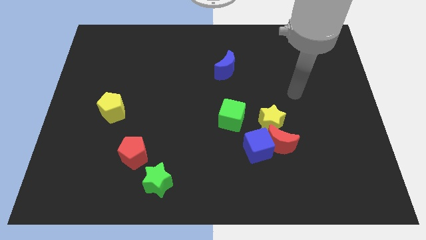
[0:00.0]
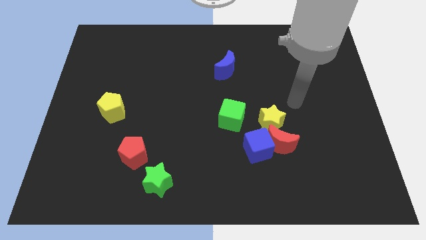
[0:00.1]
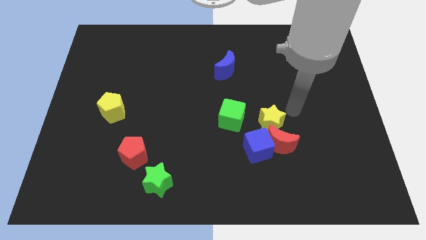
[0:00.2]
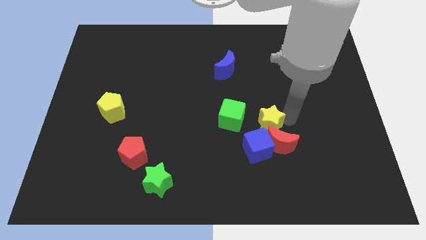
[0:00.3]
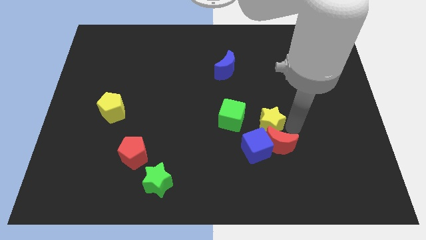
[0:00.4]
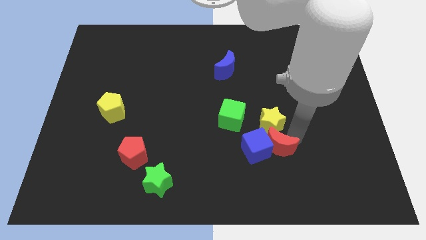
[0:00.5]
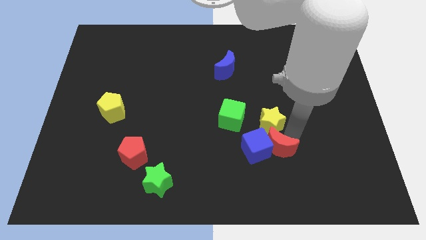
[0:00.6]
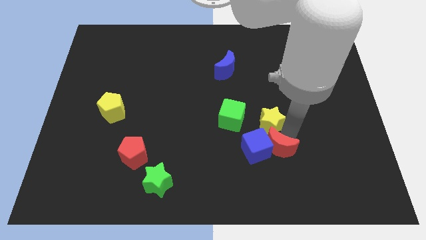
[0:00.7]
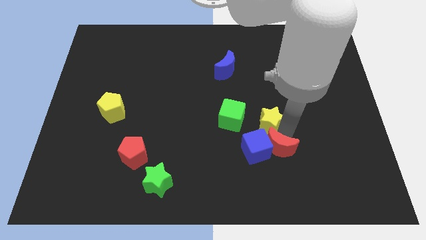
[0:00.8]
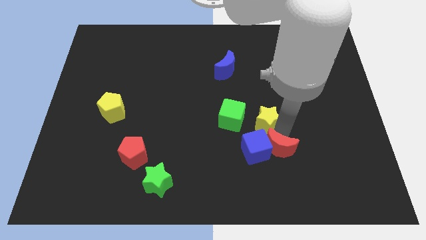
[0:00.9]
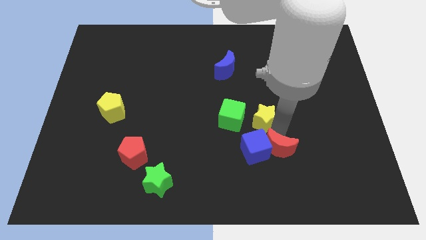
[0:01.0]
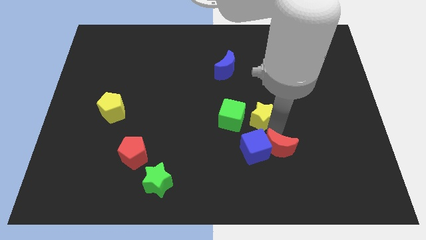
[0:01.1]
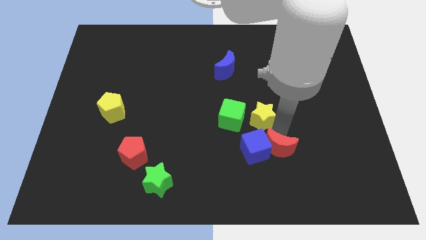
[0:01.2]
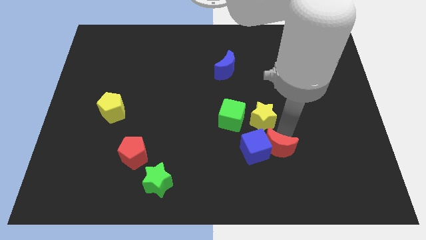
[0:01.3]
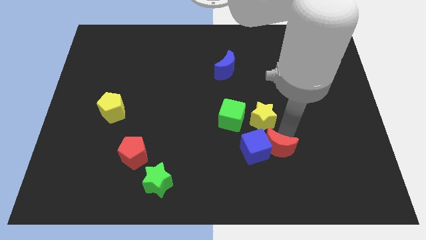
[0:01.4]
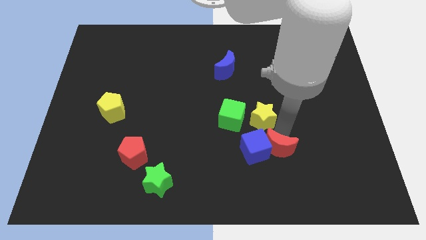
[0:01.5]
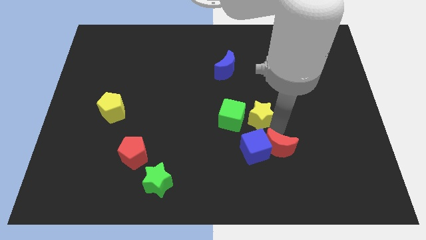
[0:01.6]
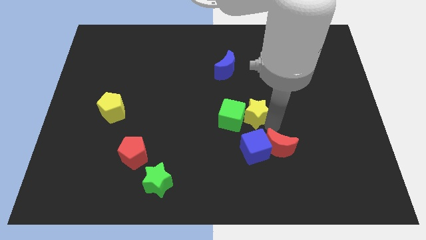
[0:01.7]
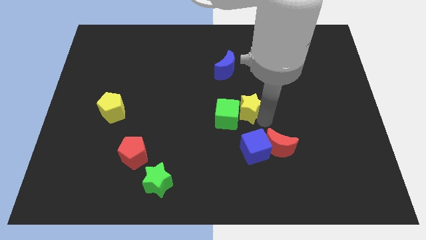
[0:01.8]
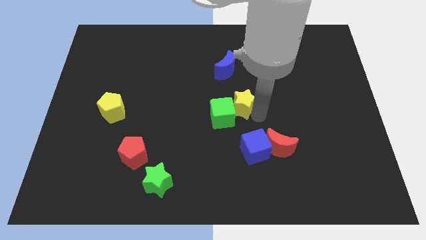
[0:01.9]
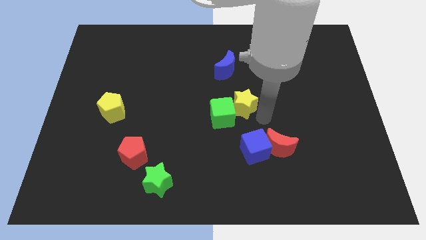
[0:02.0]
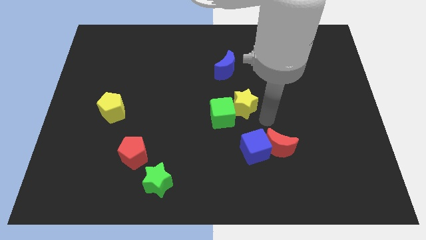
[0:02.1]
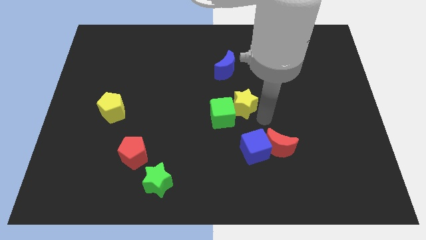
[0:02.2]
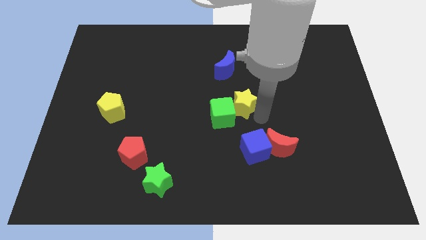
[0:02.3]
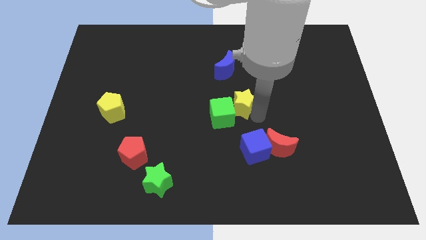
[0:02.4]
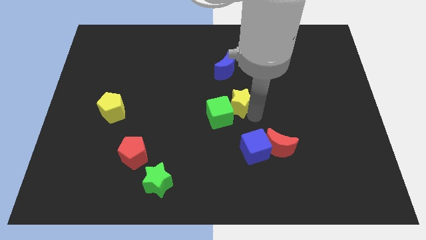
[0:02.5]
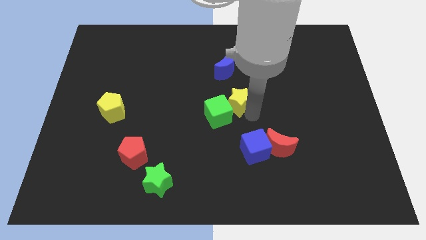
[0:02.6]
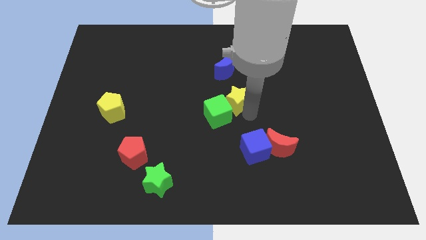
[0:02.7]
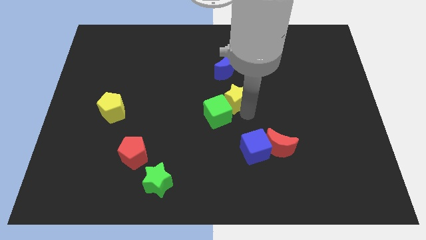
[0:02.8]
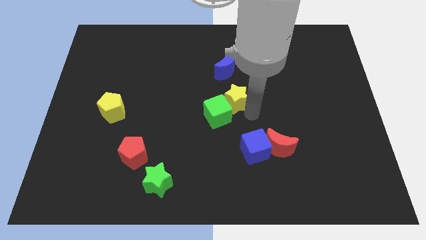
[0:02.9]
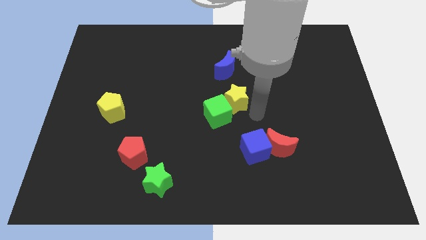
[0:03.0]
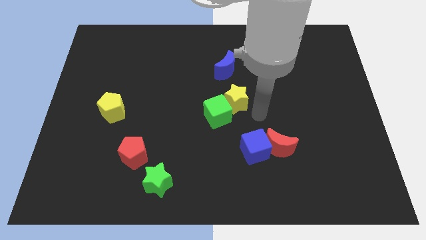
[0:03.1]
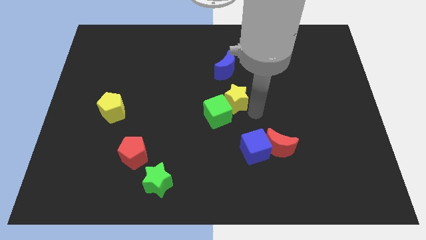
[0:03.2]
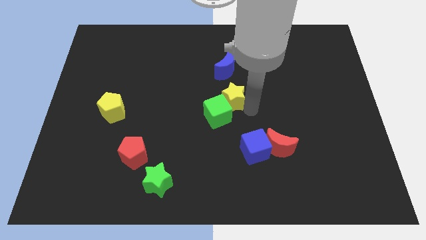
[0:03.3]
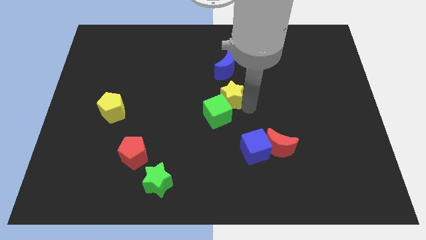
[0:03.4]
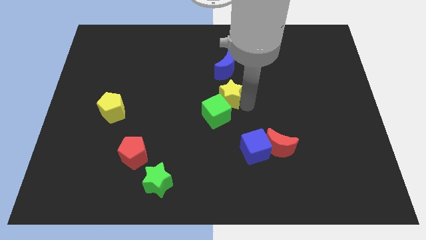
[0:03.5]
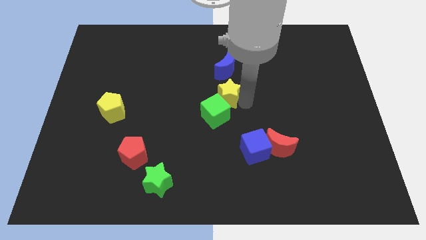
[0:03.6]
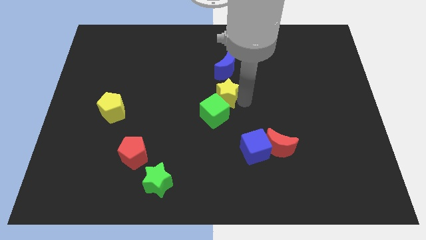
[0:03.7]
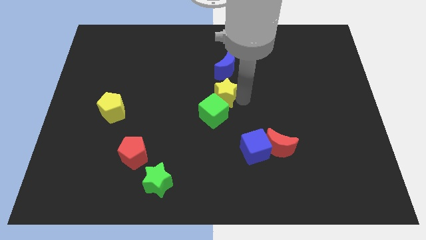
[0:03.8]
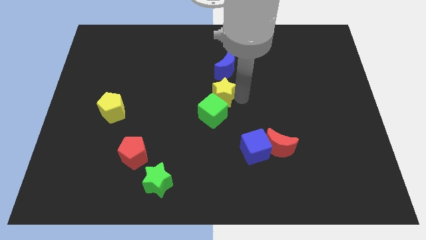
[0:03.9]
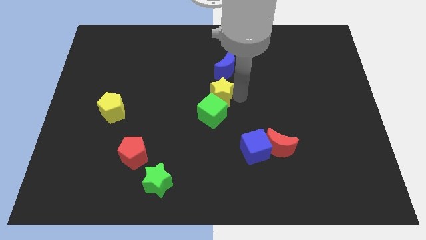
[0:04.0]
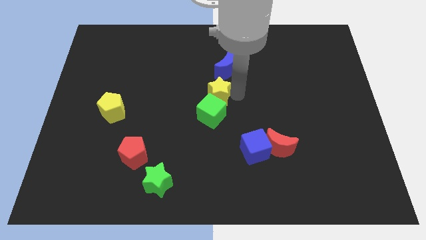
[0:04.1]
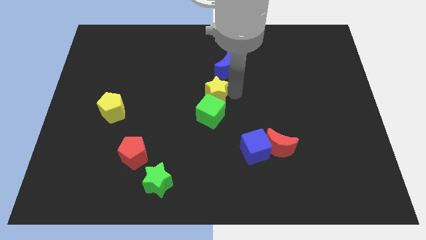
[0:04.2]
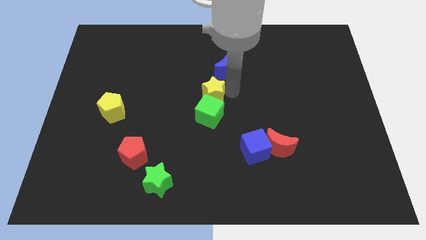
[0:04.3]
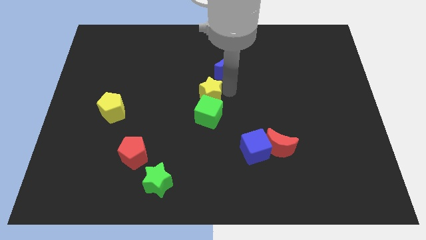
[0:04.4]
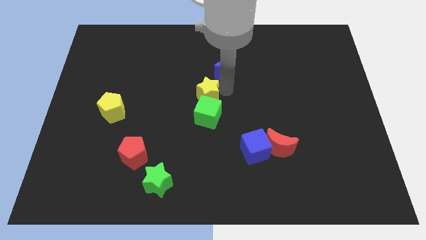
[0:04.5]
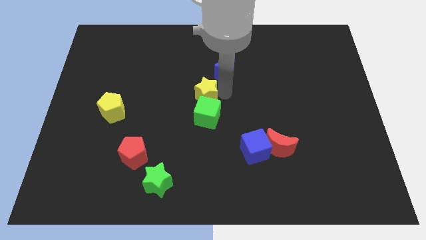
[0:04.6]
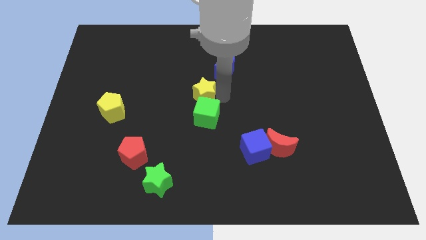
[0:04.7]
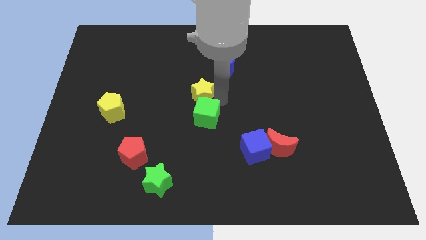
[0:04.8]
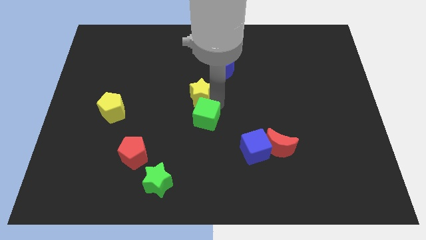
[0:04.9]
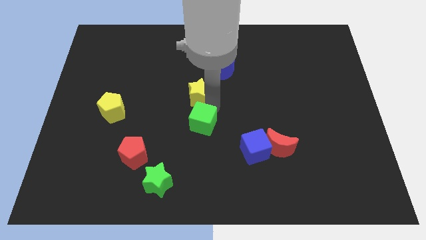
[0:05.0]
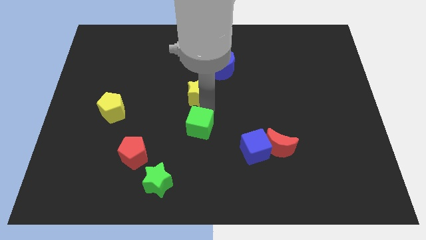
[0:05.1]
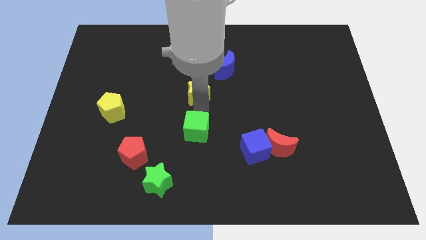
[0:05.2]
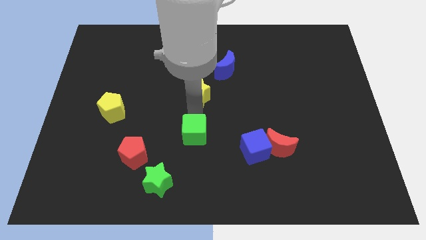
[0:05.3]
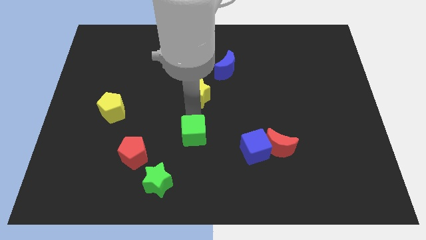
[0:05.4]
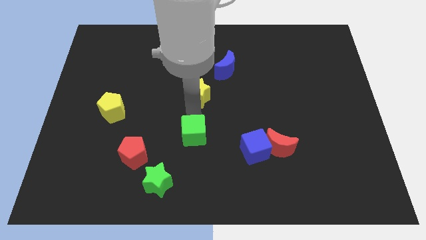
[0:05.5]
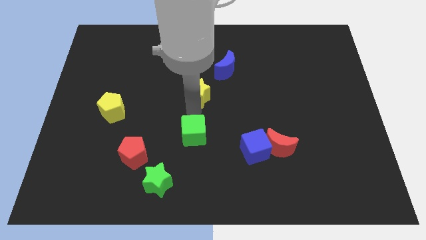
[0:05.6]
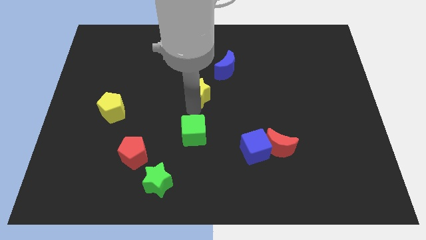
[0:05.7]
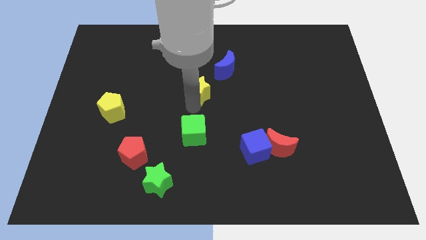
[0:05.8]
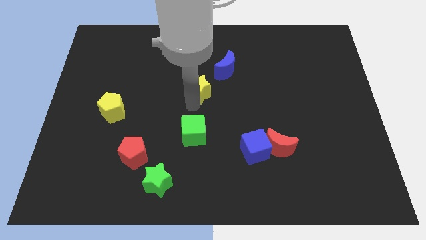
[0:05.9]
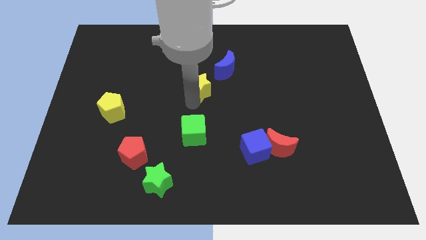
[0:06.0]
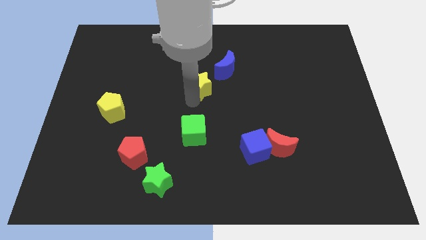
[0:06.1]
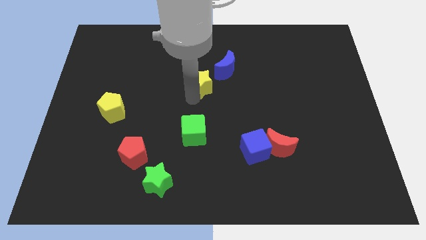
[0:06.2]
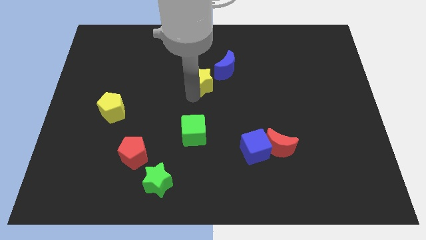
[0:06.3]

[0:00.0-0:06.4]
push the yellow star to the left side of the blue moon

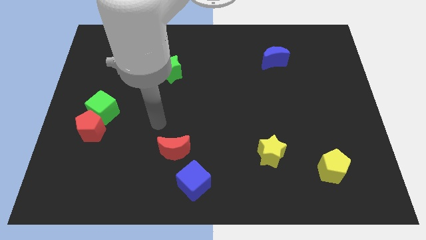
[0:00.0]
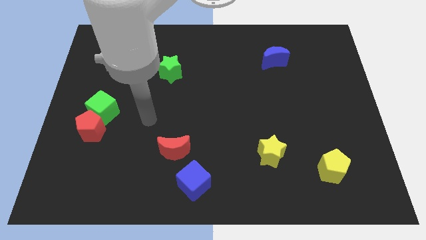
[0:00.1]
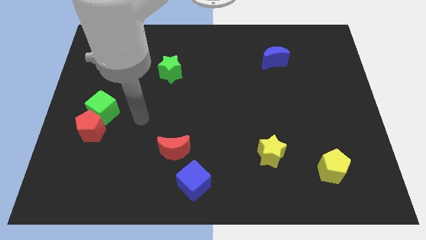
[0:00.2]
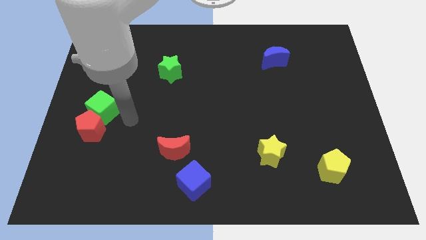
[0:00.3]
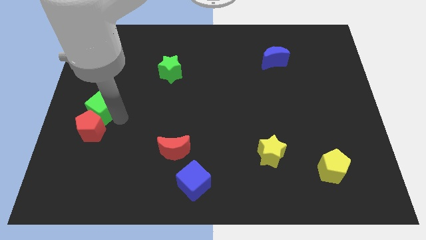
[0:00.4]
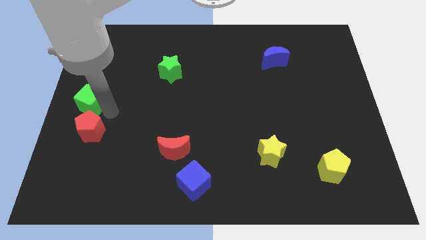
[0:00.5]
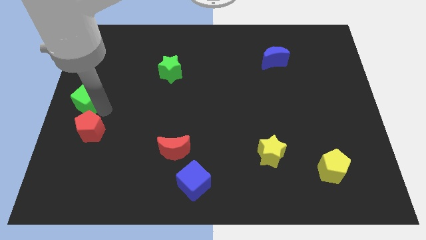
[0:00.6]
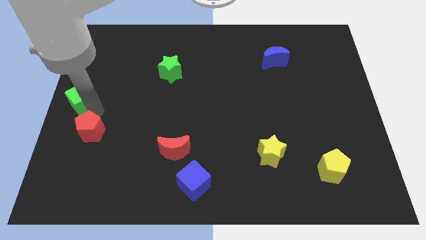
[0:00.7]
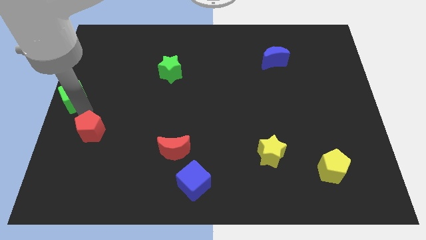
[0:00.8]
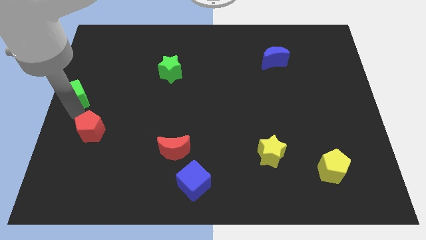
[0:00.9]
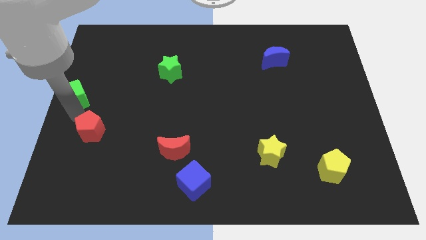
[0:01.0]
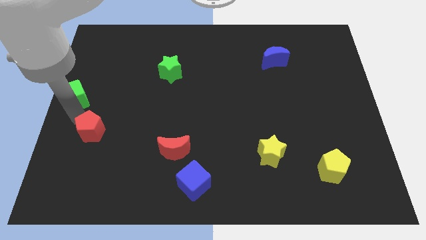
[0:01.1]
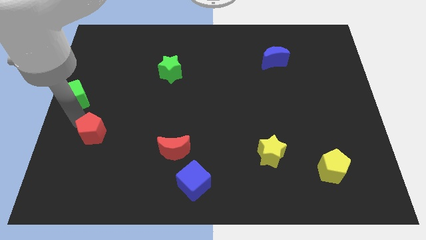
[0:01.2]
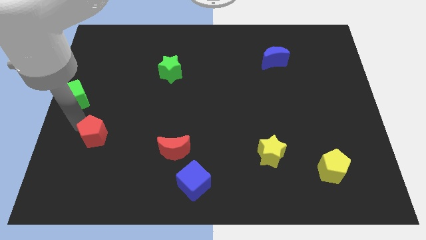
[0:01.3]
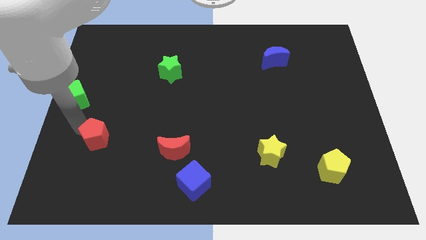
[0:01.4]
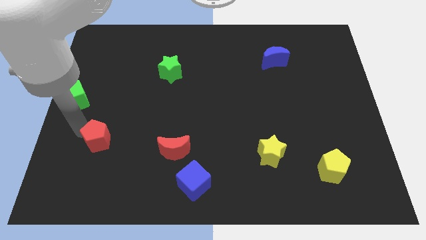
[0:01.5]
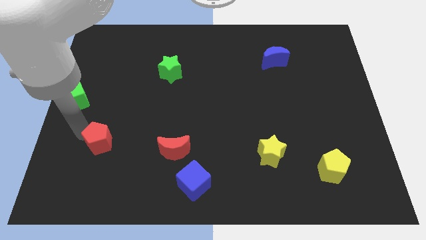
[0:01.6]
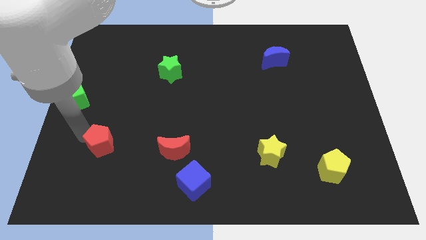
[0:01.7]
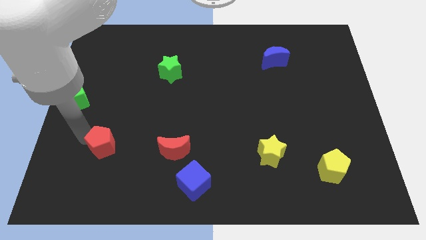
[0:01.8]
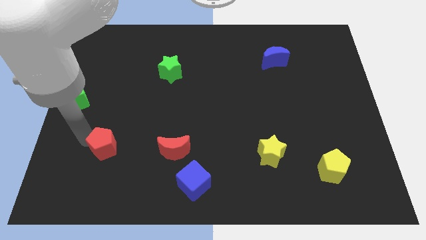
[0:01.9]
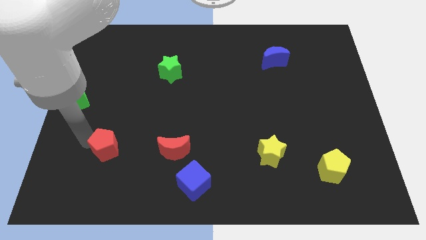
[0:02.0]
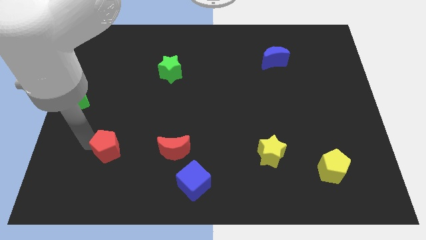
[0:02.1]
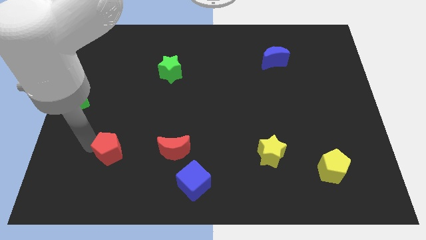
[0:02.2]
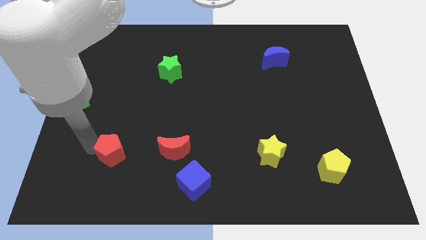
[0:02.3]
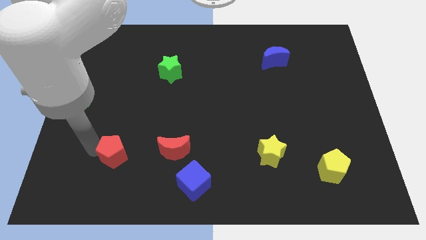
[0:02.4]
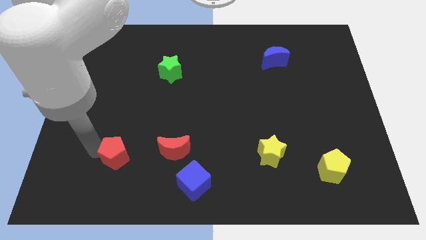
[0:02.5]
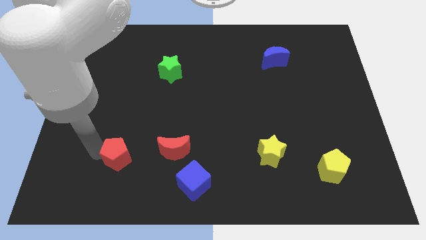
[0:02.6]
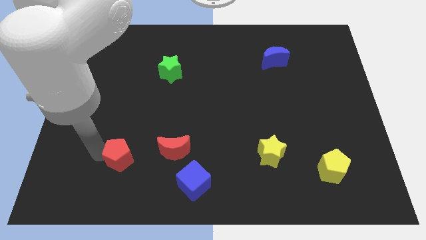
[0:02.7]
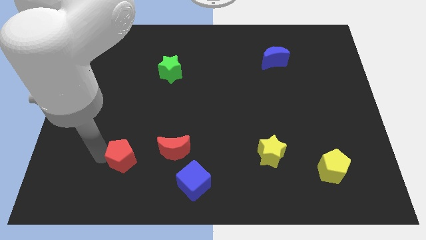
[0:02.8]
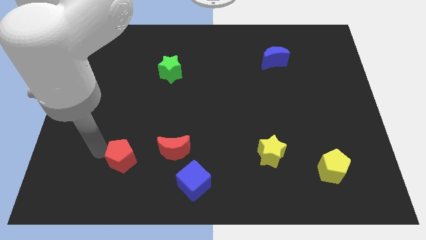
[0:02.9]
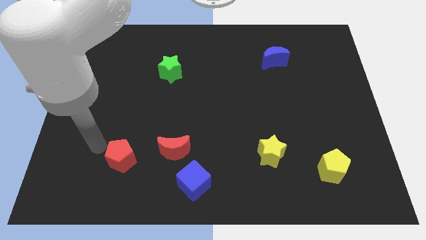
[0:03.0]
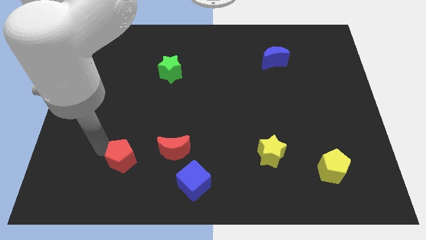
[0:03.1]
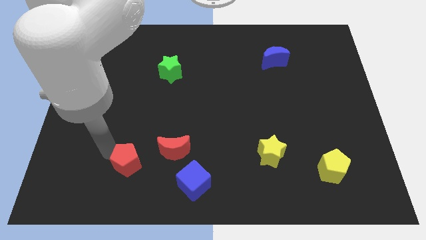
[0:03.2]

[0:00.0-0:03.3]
put the red pentagon diagonally down and to the left of the red moon
